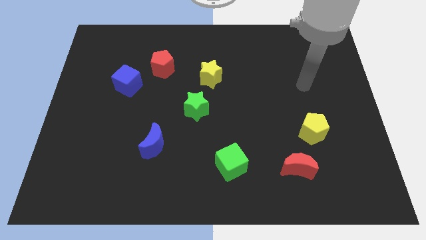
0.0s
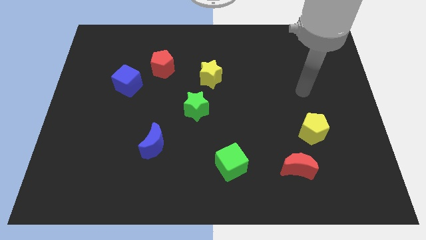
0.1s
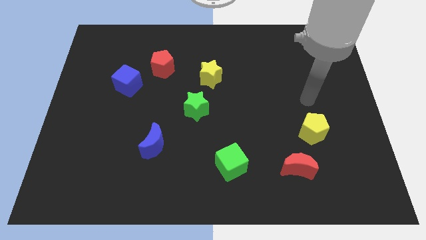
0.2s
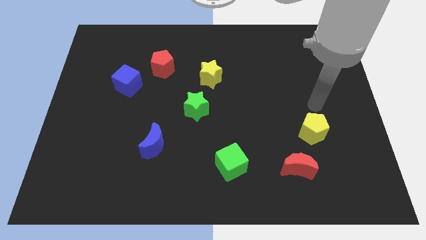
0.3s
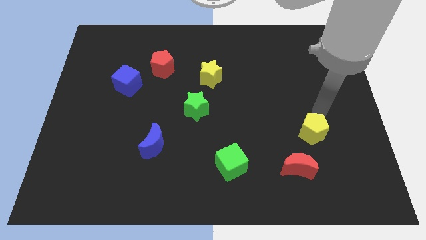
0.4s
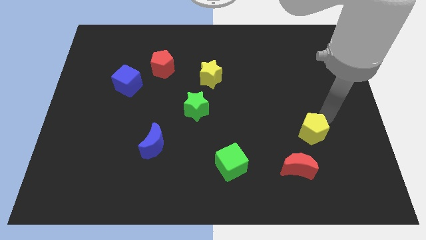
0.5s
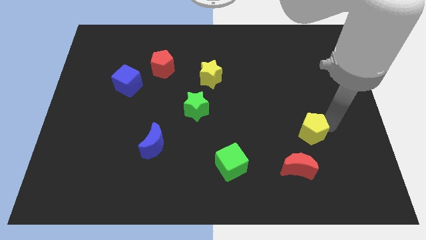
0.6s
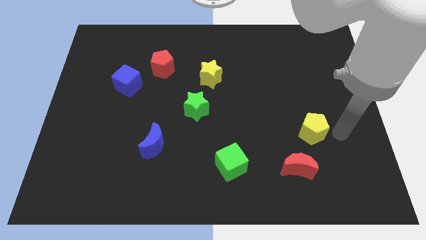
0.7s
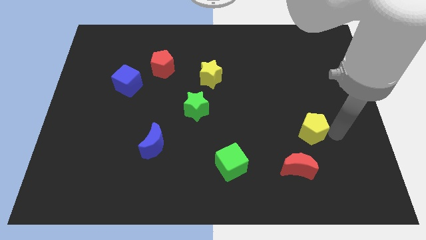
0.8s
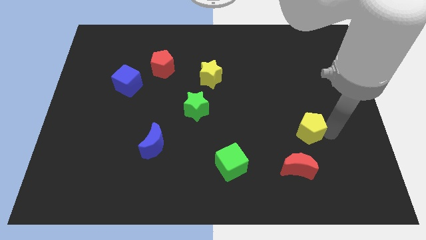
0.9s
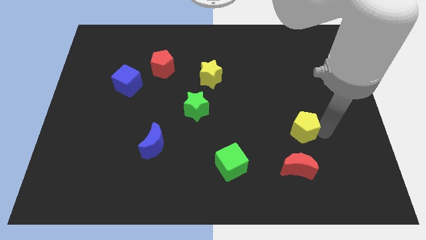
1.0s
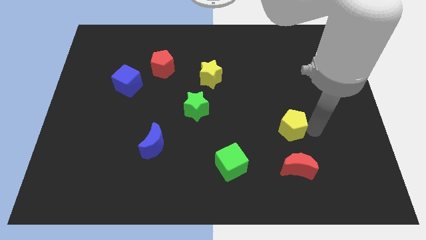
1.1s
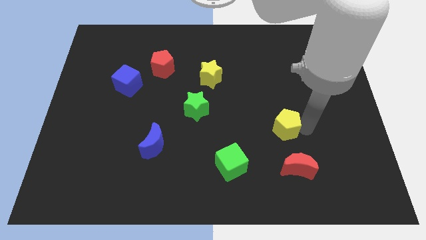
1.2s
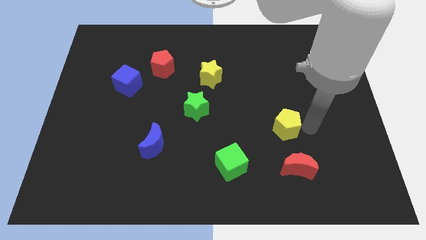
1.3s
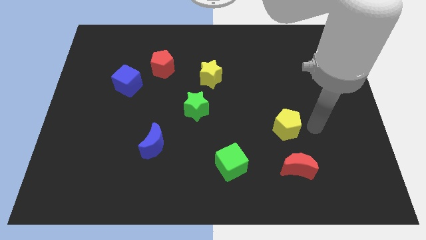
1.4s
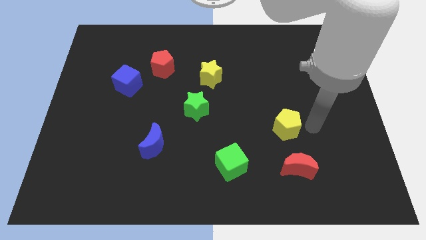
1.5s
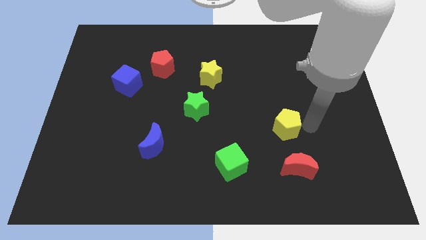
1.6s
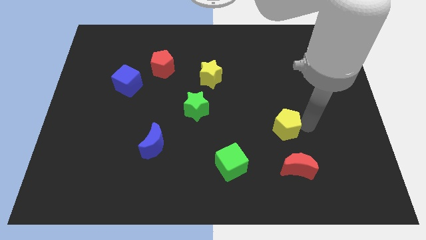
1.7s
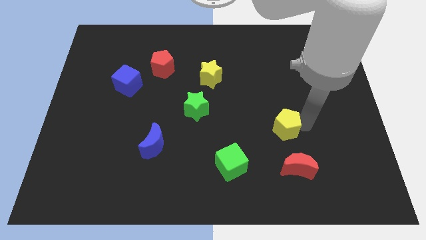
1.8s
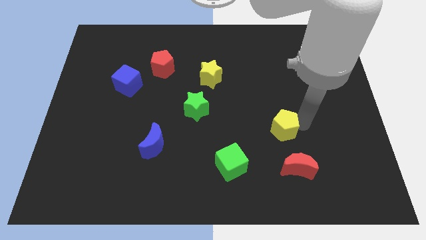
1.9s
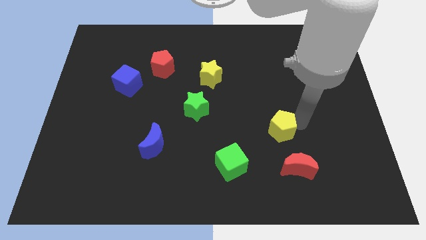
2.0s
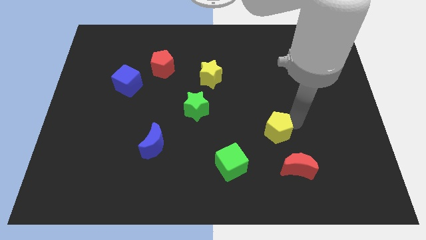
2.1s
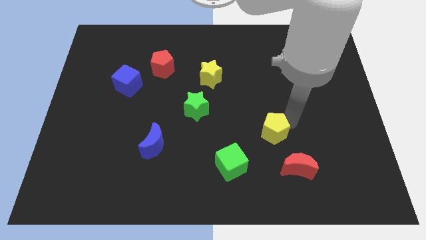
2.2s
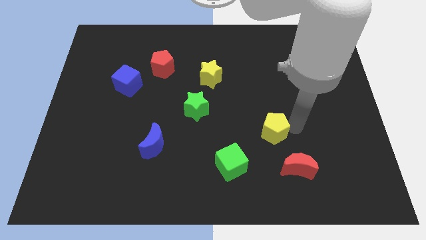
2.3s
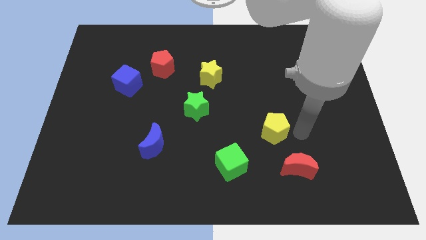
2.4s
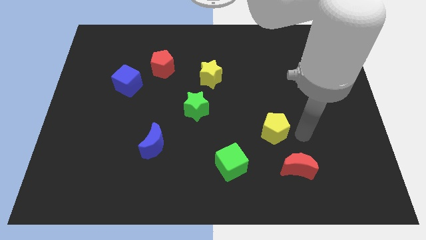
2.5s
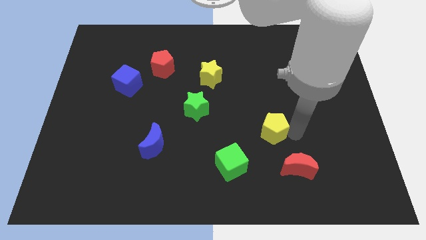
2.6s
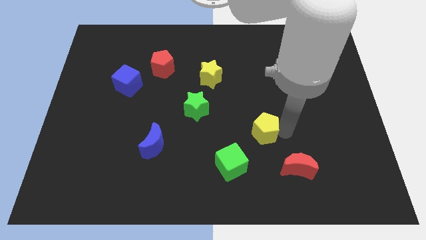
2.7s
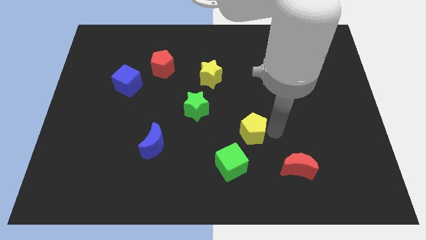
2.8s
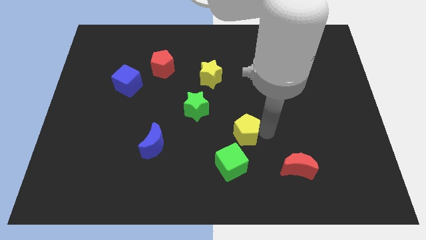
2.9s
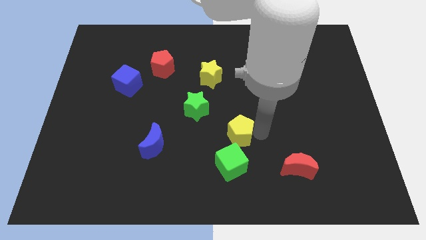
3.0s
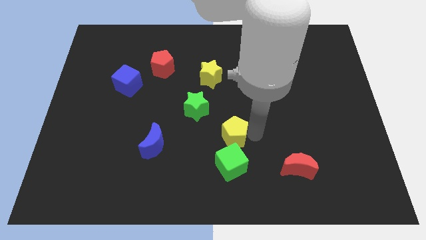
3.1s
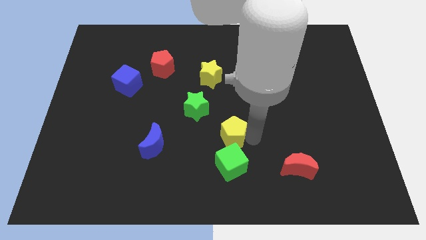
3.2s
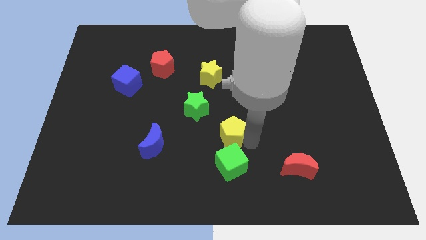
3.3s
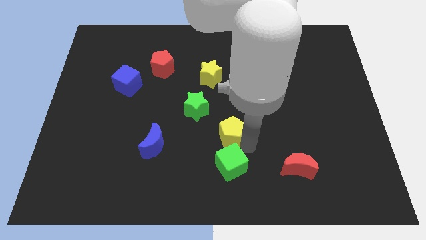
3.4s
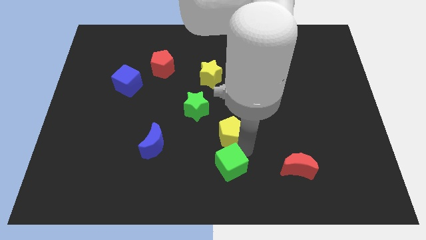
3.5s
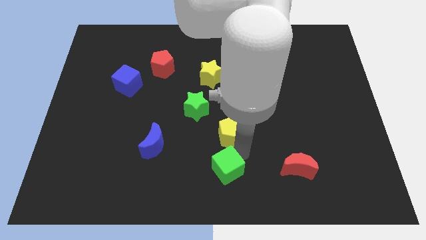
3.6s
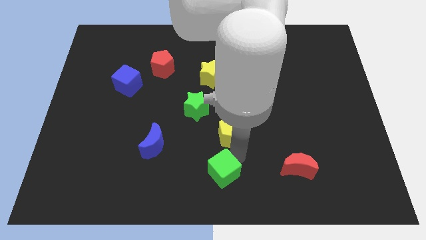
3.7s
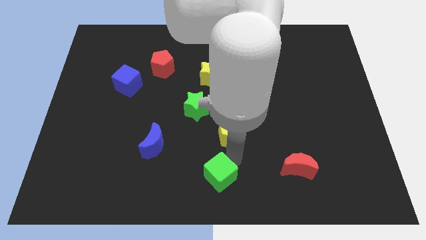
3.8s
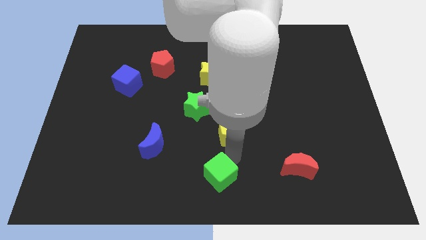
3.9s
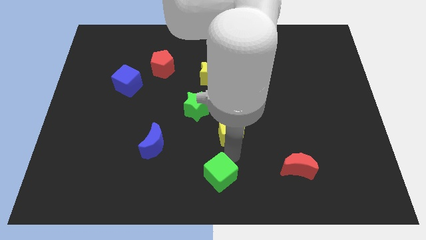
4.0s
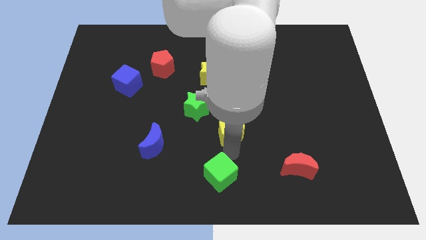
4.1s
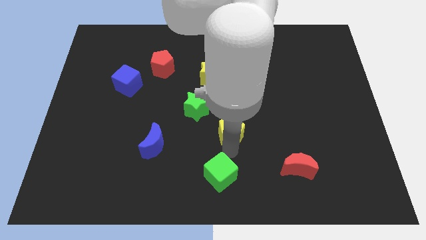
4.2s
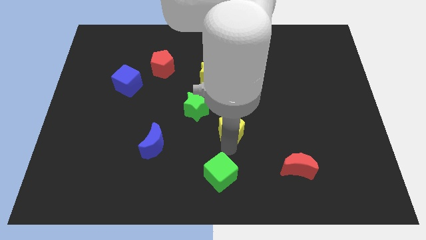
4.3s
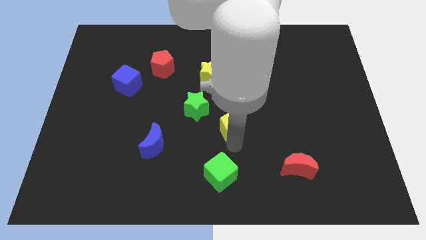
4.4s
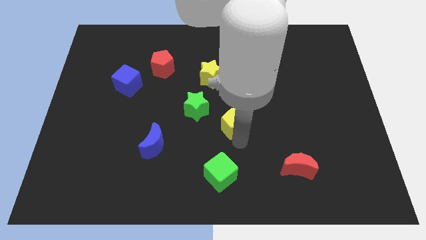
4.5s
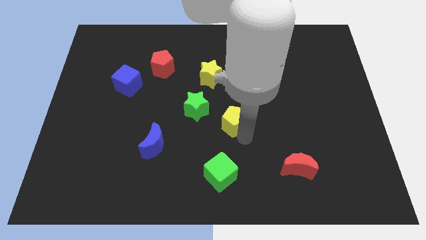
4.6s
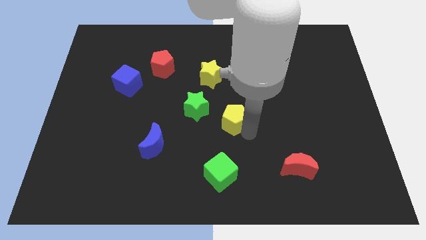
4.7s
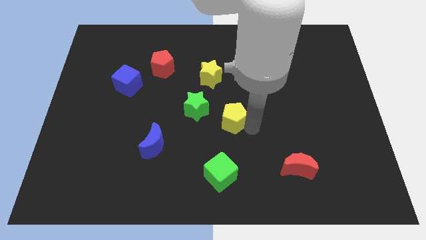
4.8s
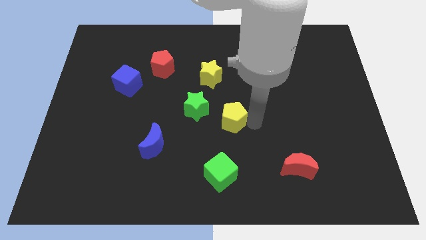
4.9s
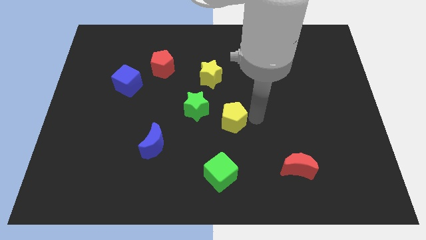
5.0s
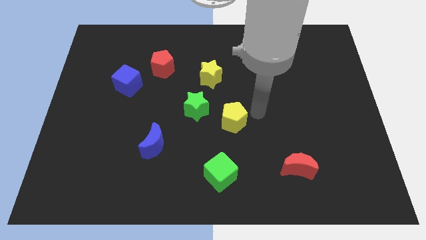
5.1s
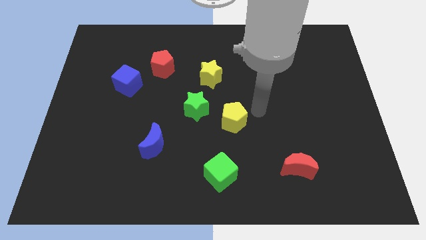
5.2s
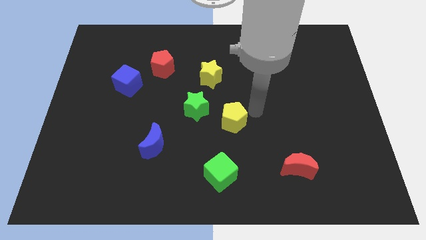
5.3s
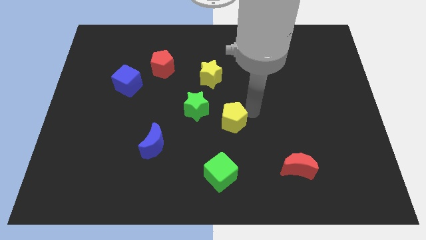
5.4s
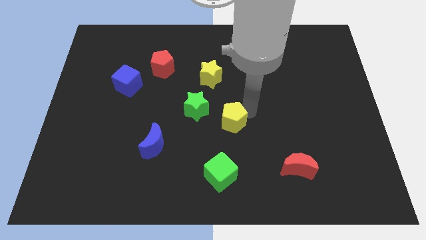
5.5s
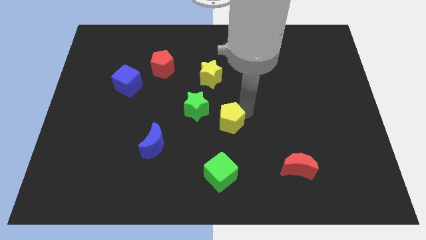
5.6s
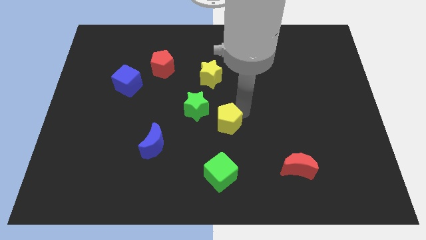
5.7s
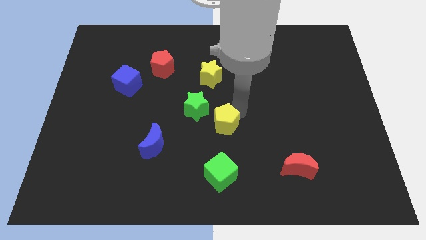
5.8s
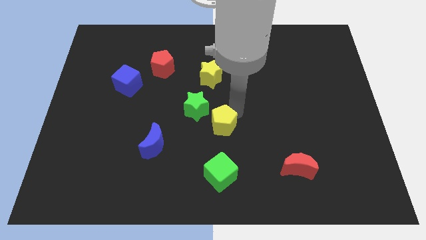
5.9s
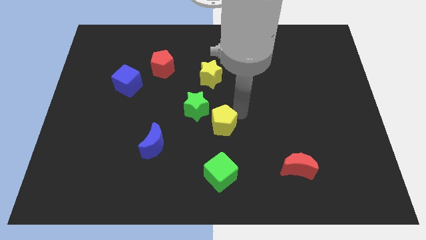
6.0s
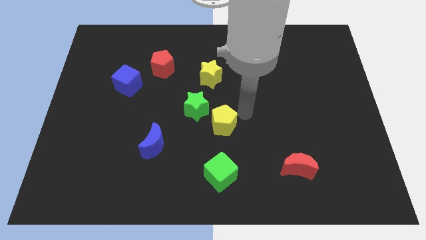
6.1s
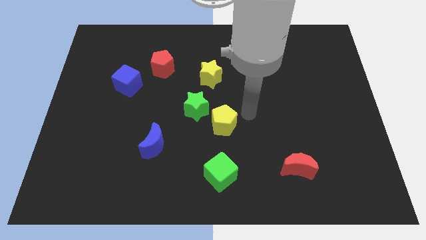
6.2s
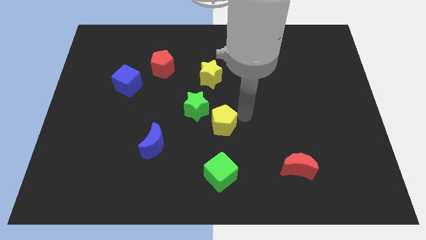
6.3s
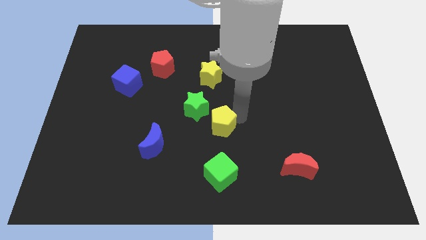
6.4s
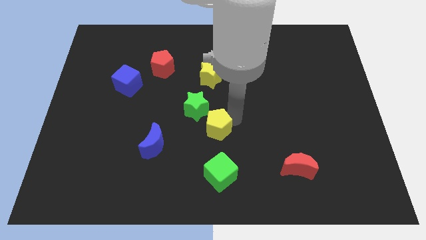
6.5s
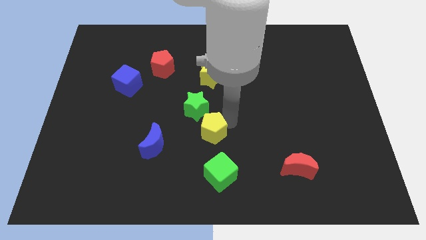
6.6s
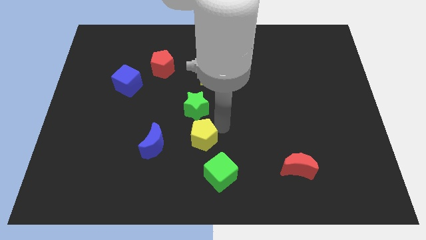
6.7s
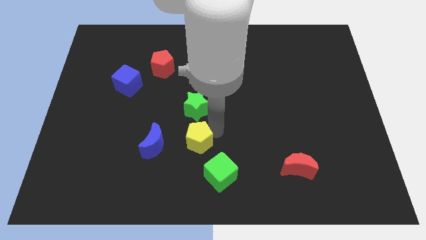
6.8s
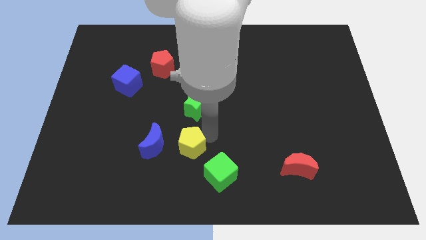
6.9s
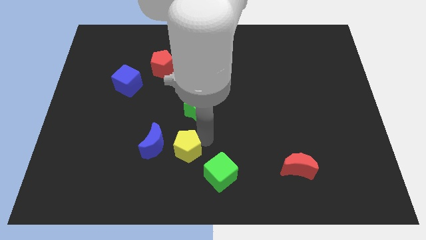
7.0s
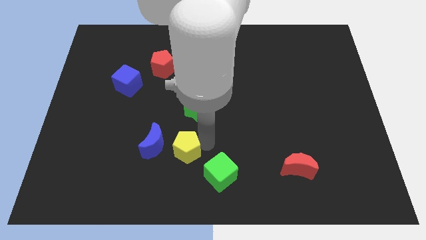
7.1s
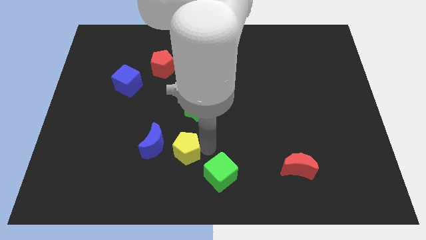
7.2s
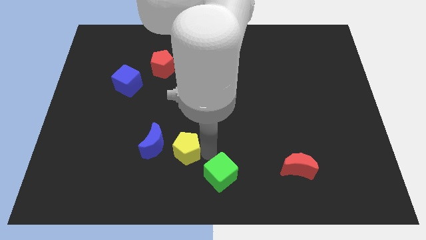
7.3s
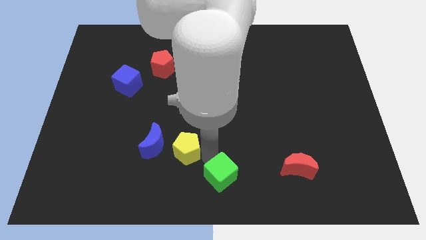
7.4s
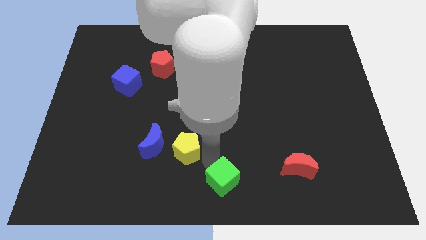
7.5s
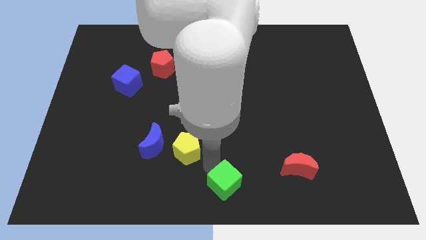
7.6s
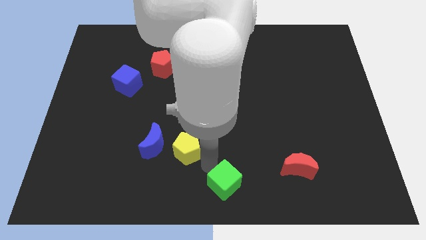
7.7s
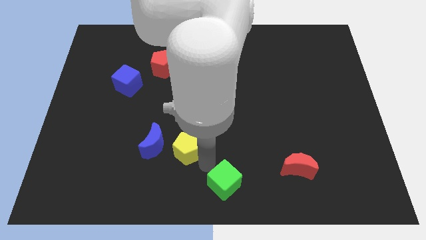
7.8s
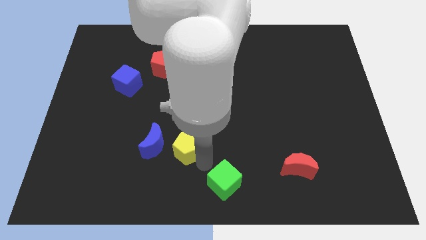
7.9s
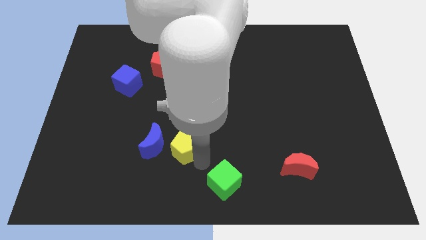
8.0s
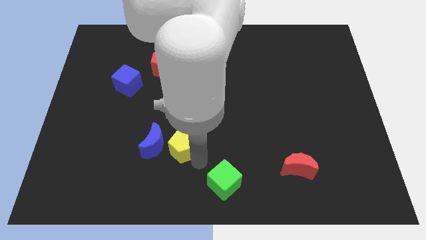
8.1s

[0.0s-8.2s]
push the yellow pentagon close to the blue moon

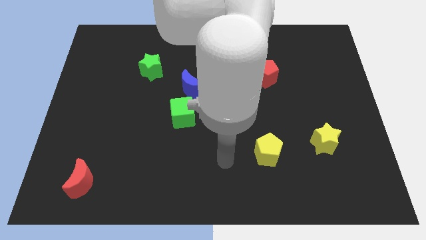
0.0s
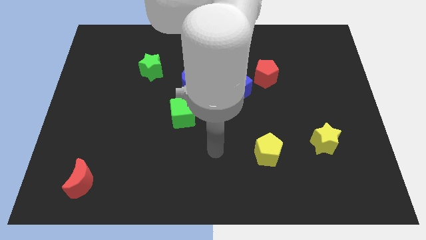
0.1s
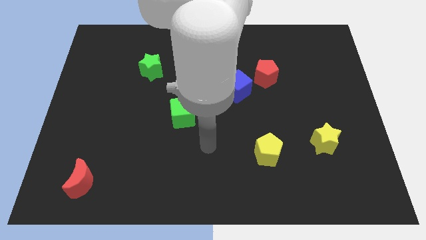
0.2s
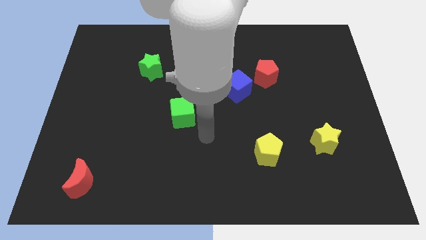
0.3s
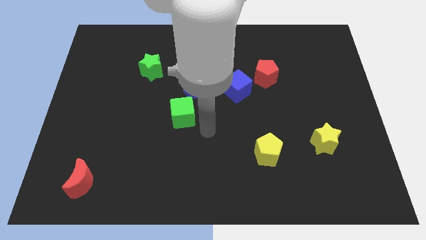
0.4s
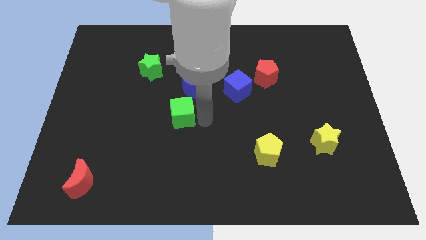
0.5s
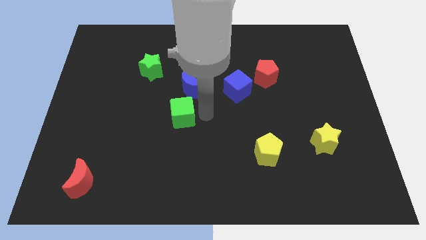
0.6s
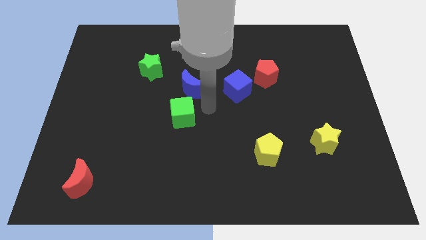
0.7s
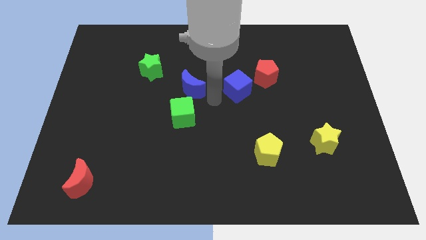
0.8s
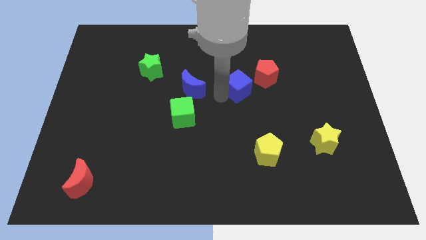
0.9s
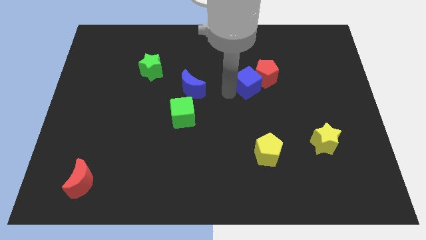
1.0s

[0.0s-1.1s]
slide the blue cube towards the red pentagon
